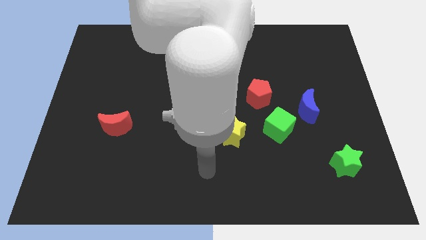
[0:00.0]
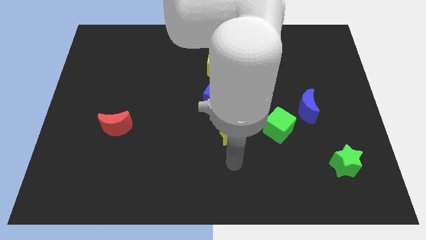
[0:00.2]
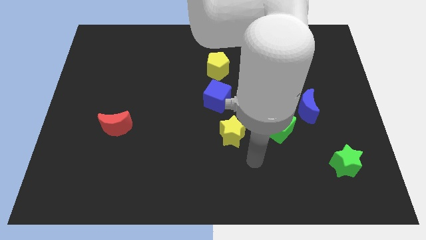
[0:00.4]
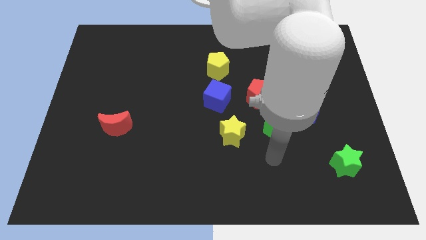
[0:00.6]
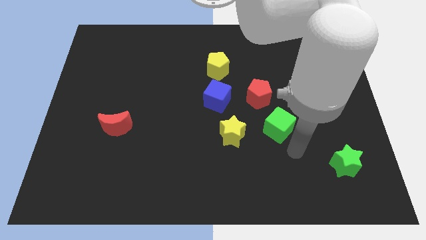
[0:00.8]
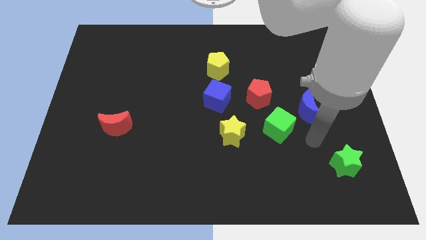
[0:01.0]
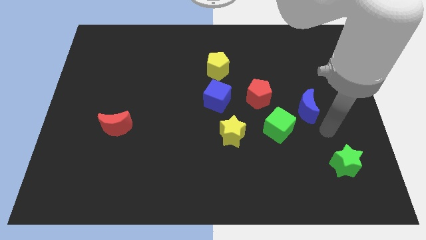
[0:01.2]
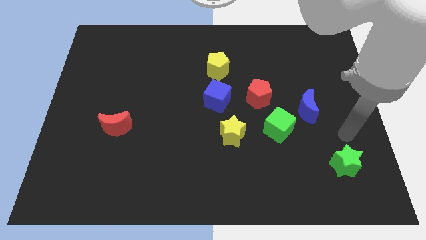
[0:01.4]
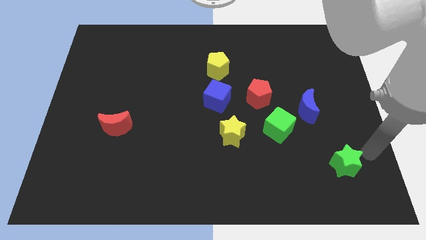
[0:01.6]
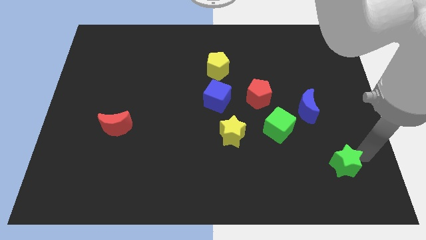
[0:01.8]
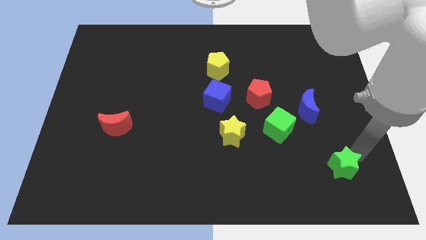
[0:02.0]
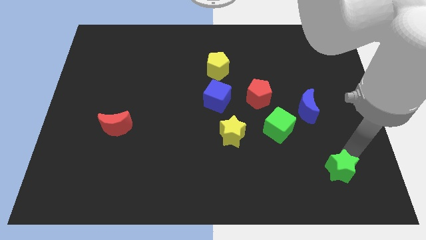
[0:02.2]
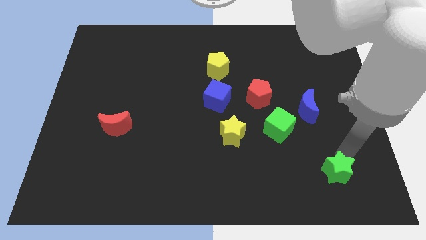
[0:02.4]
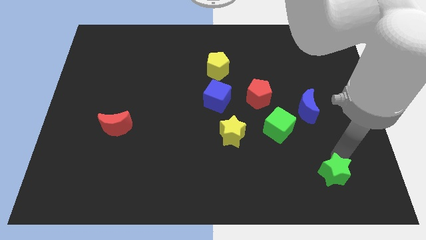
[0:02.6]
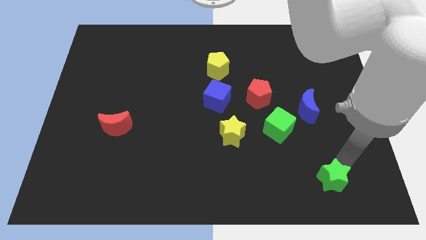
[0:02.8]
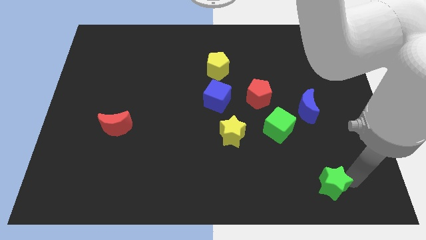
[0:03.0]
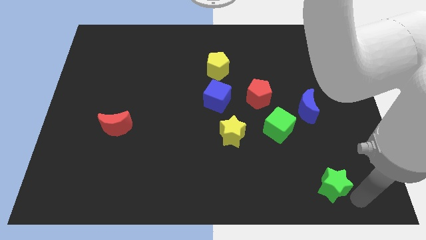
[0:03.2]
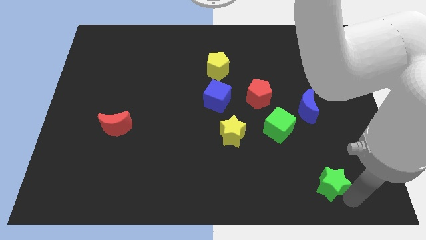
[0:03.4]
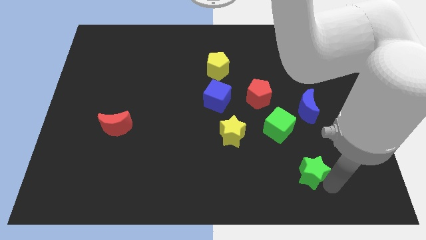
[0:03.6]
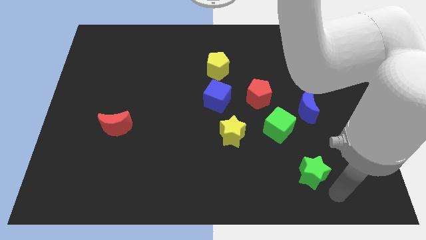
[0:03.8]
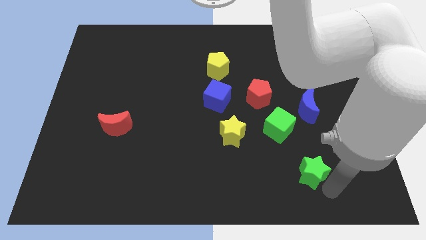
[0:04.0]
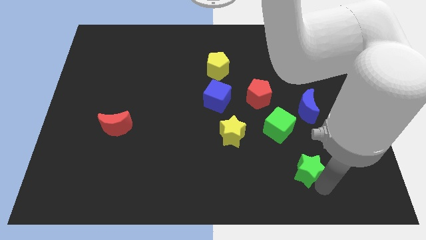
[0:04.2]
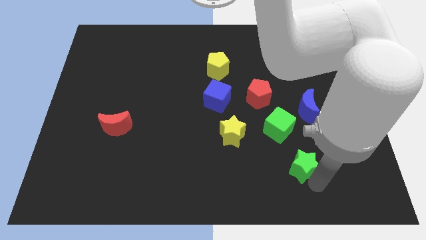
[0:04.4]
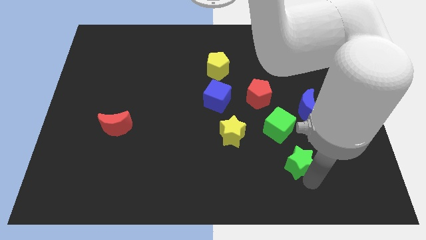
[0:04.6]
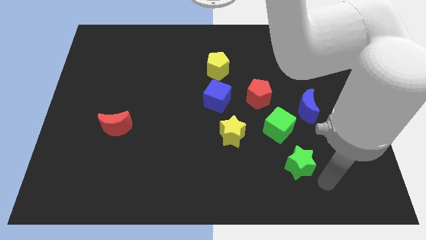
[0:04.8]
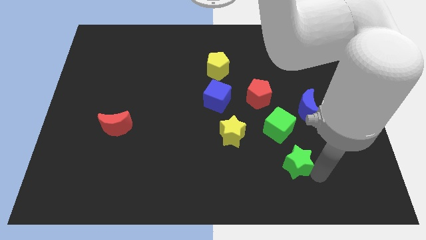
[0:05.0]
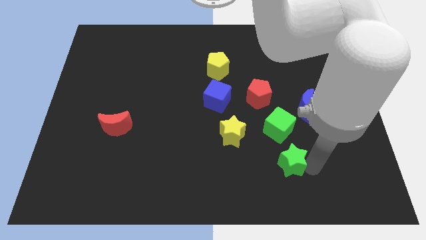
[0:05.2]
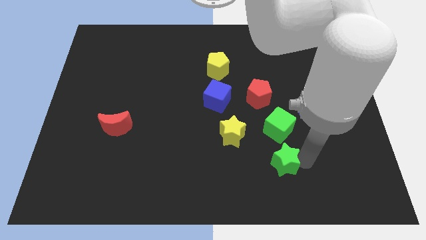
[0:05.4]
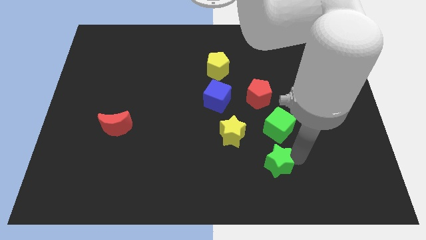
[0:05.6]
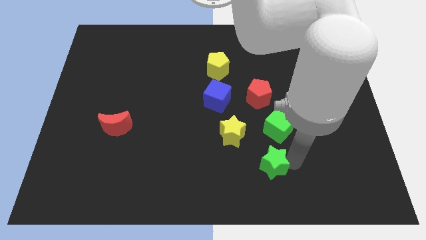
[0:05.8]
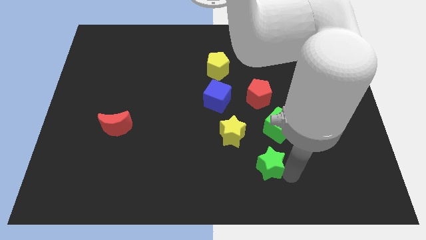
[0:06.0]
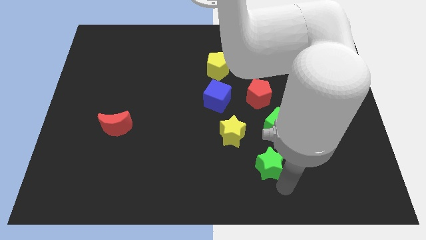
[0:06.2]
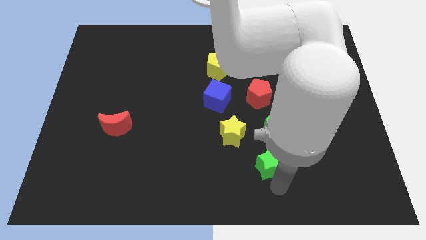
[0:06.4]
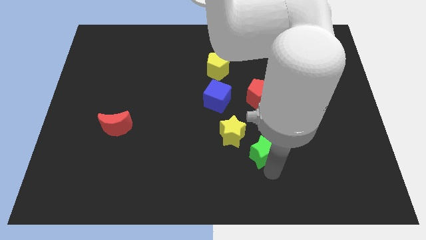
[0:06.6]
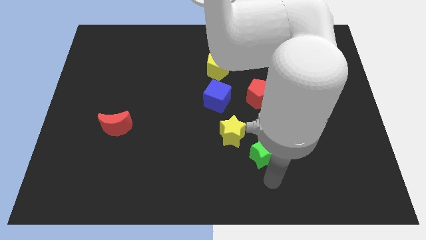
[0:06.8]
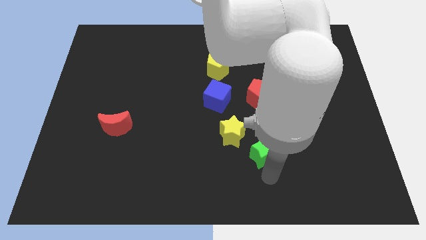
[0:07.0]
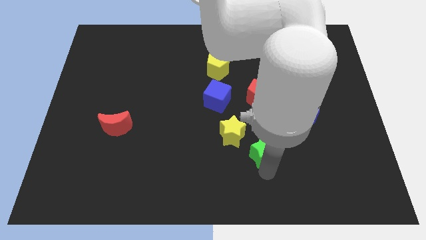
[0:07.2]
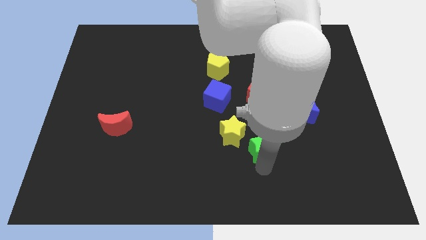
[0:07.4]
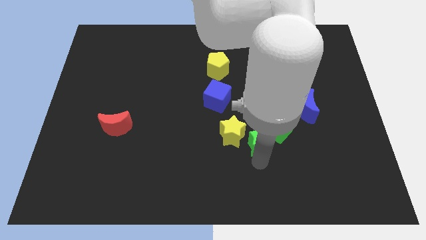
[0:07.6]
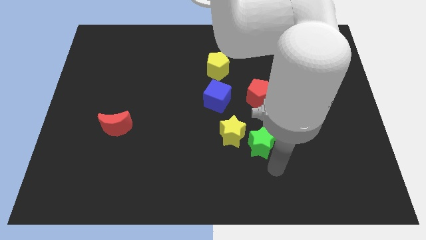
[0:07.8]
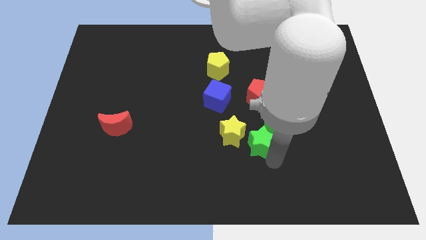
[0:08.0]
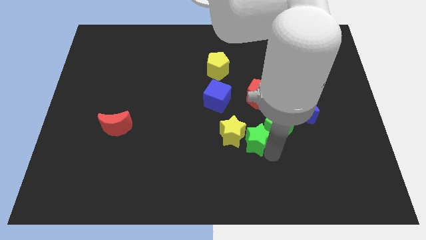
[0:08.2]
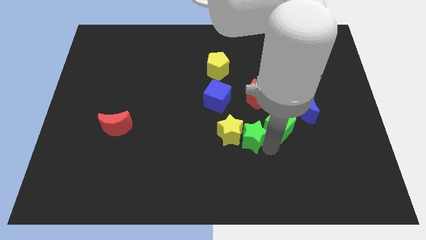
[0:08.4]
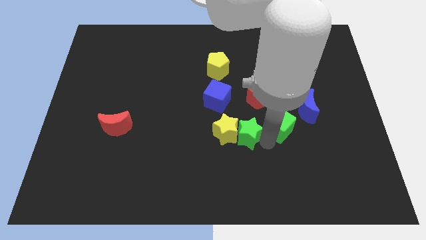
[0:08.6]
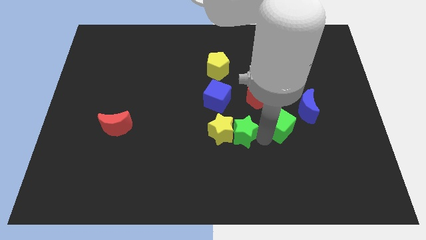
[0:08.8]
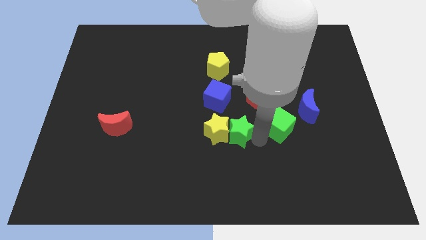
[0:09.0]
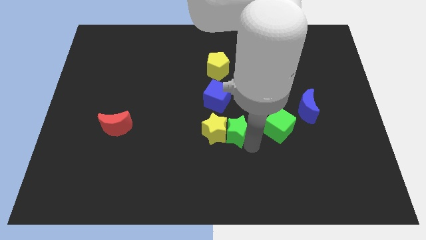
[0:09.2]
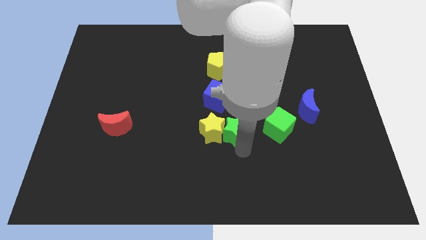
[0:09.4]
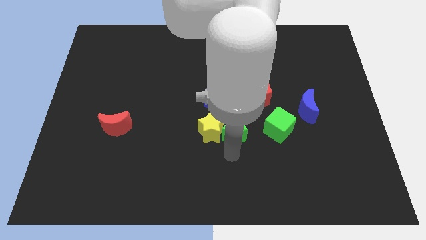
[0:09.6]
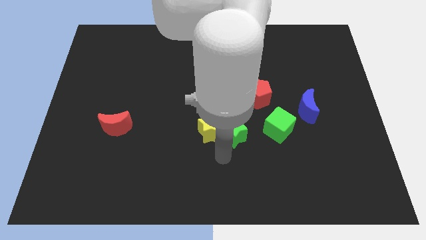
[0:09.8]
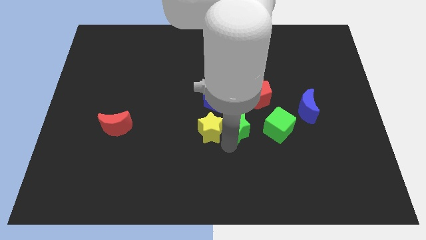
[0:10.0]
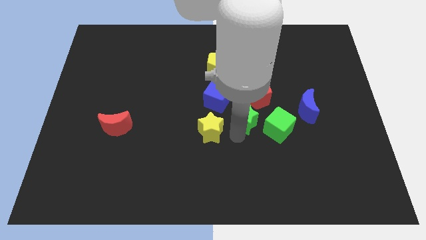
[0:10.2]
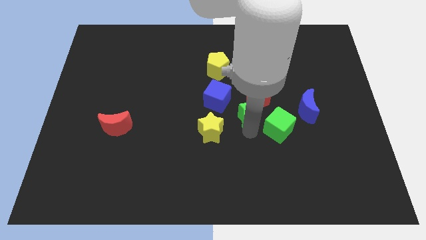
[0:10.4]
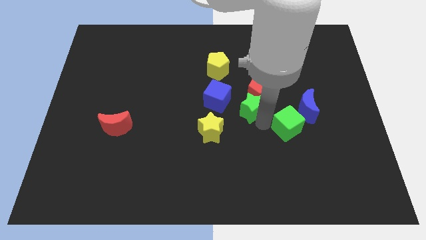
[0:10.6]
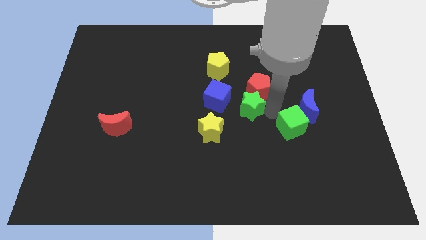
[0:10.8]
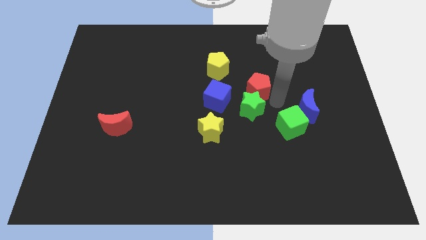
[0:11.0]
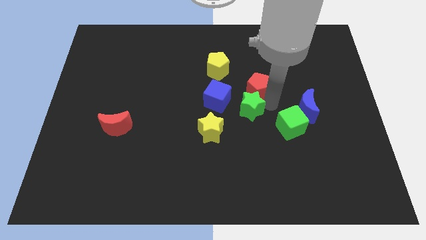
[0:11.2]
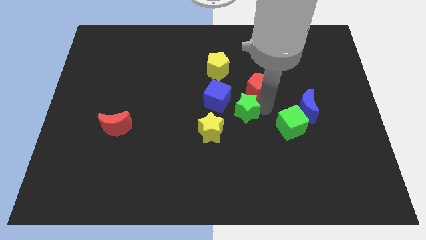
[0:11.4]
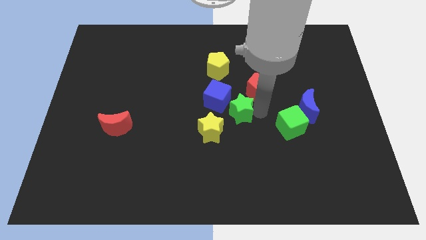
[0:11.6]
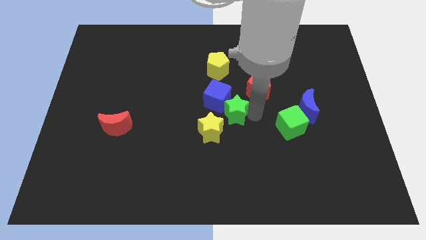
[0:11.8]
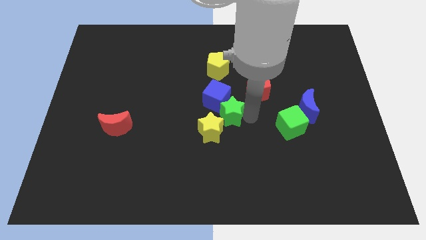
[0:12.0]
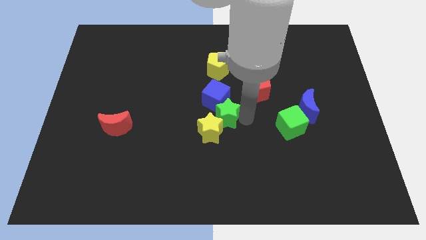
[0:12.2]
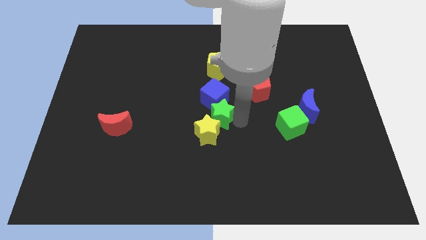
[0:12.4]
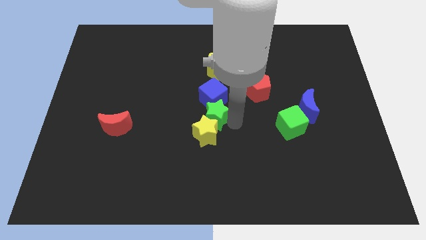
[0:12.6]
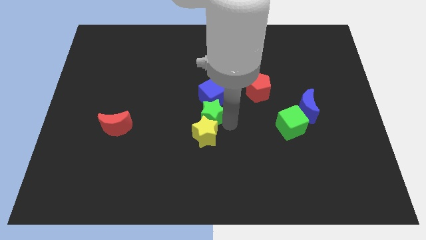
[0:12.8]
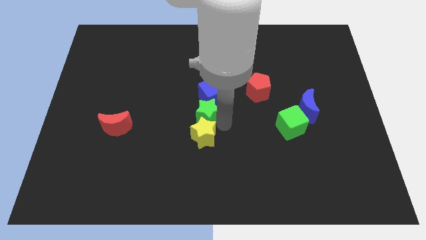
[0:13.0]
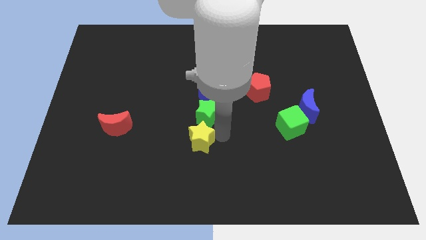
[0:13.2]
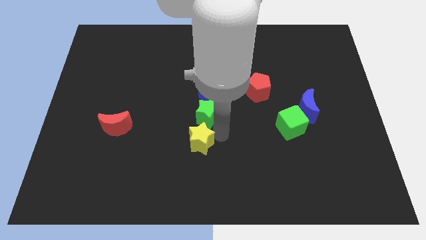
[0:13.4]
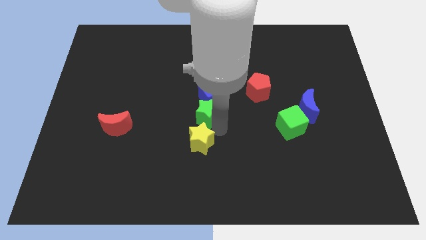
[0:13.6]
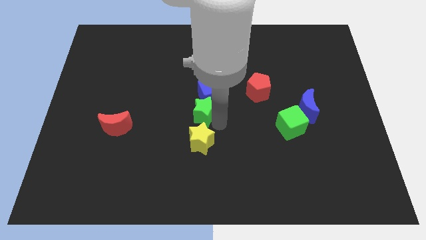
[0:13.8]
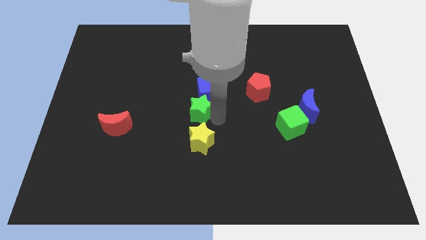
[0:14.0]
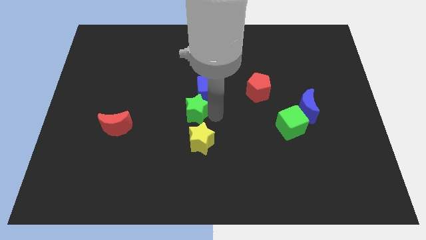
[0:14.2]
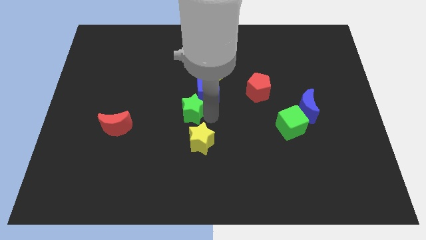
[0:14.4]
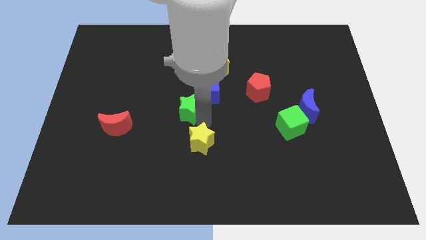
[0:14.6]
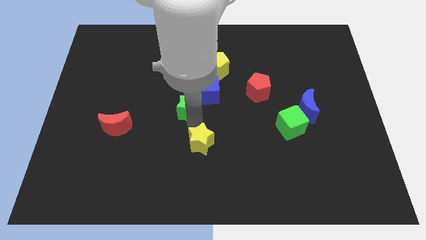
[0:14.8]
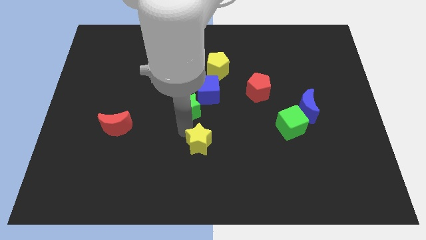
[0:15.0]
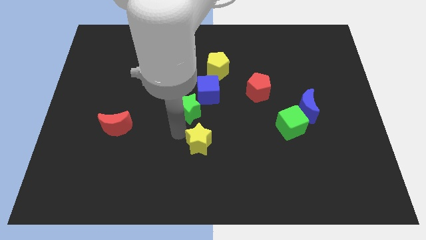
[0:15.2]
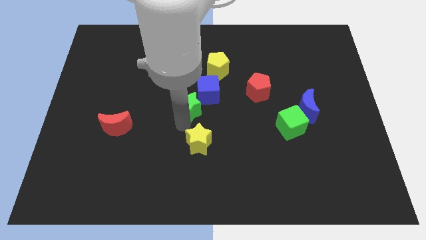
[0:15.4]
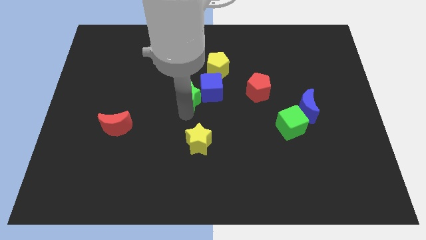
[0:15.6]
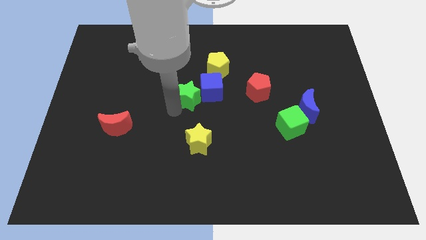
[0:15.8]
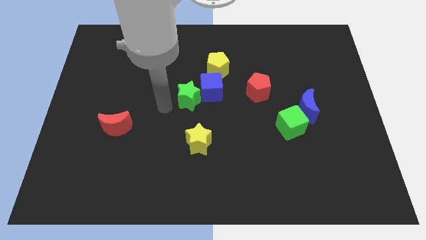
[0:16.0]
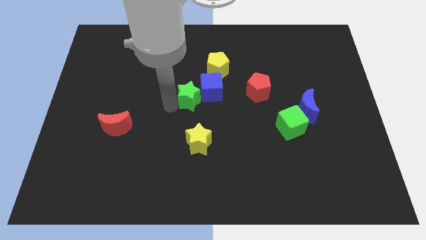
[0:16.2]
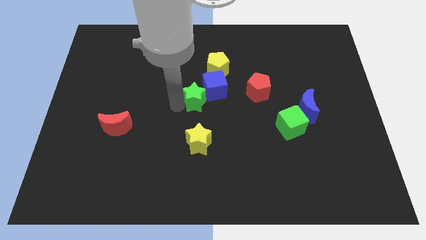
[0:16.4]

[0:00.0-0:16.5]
move the green star left of the red pentagon
